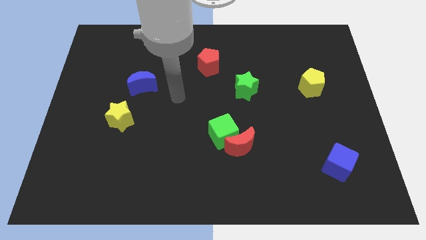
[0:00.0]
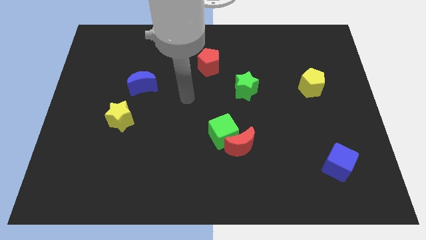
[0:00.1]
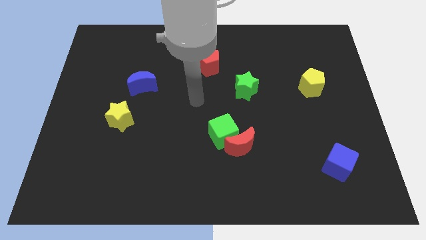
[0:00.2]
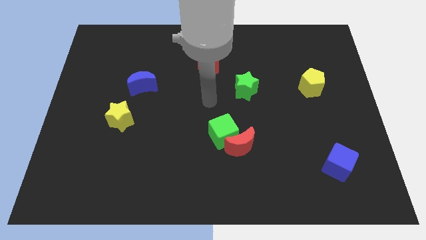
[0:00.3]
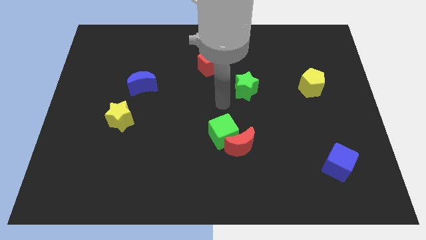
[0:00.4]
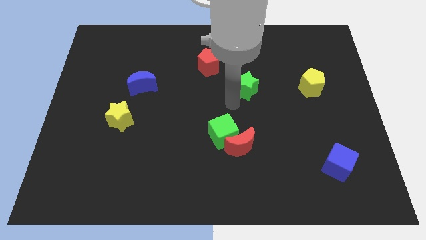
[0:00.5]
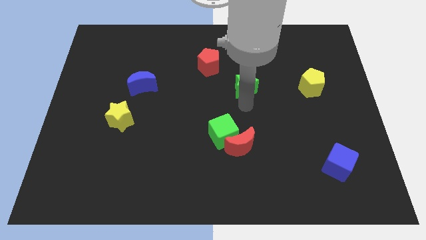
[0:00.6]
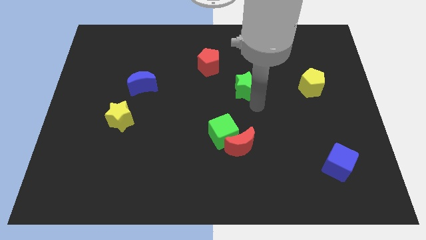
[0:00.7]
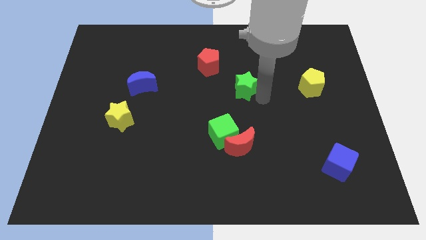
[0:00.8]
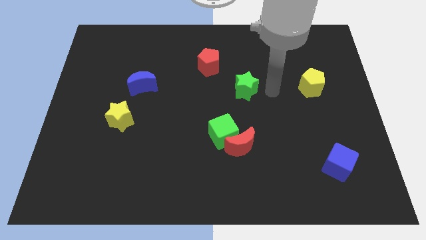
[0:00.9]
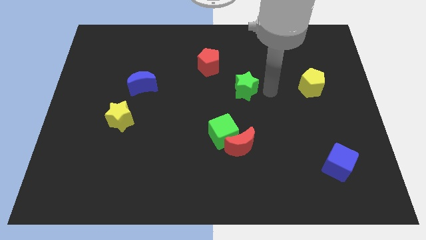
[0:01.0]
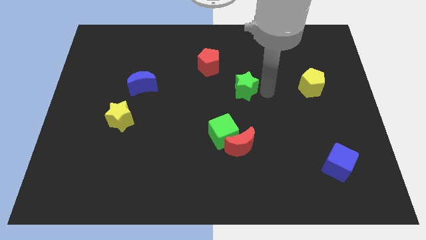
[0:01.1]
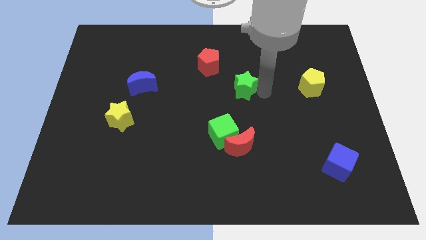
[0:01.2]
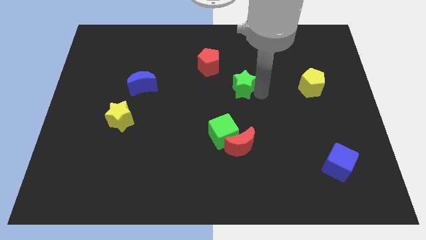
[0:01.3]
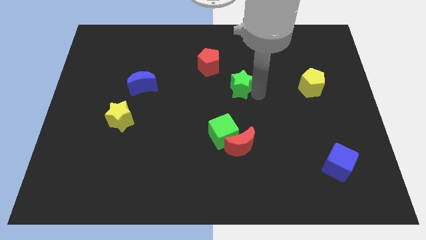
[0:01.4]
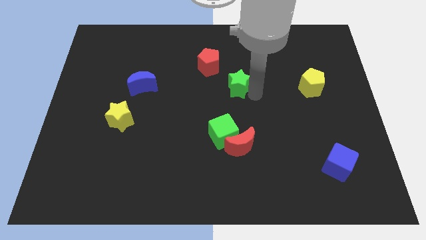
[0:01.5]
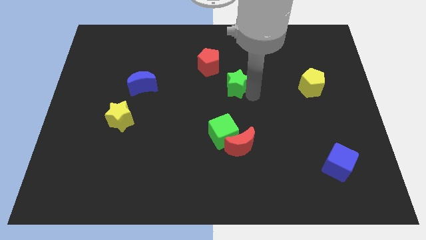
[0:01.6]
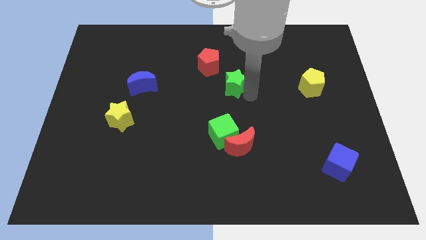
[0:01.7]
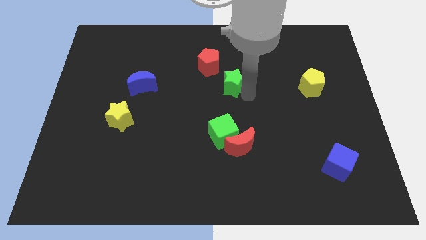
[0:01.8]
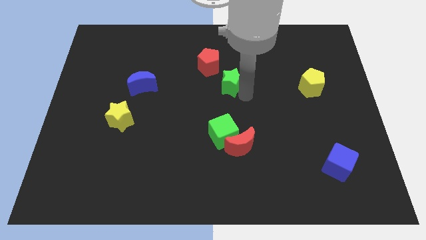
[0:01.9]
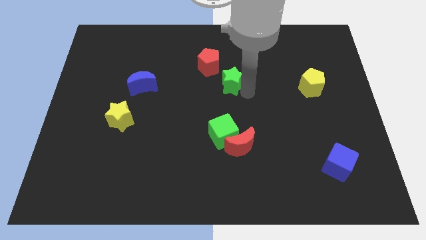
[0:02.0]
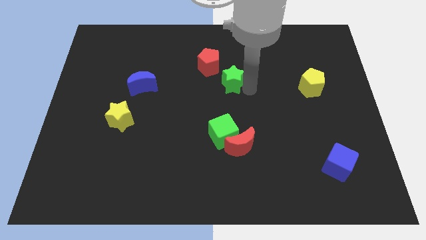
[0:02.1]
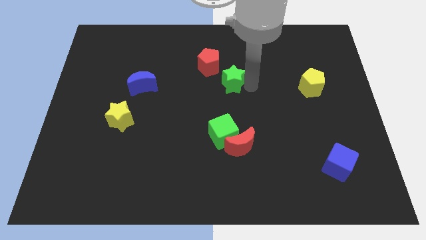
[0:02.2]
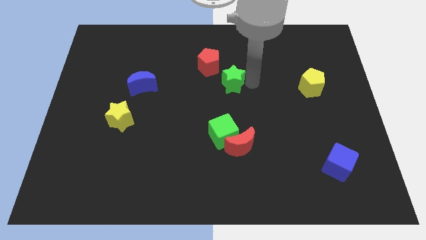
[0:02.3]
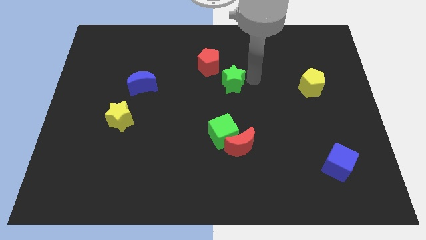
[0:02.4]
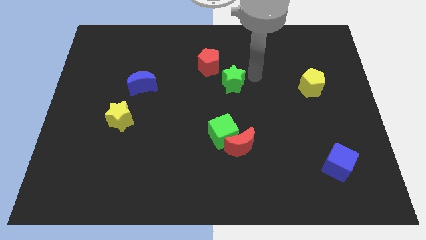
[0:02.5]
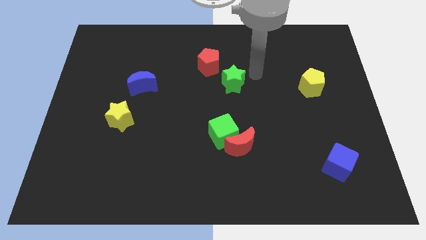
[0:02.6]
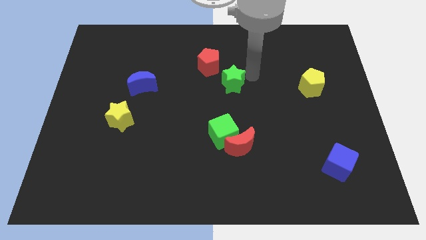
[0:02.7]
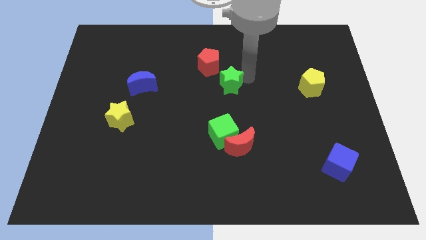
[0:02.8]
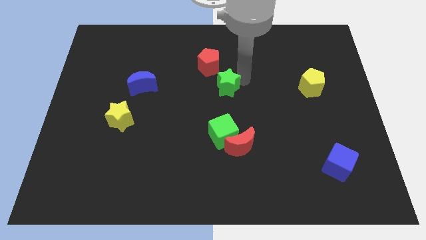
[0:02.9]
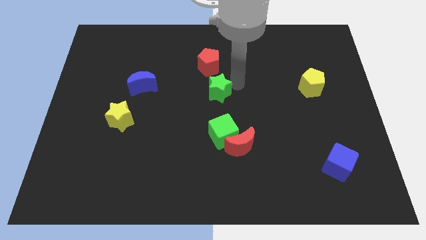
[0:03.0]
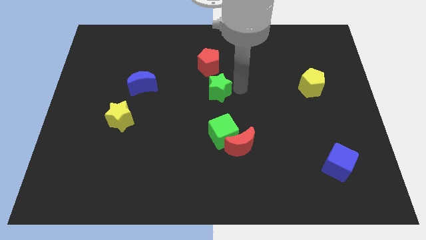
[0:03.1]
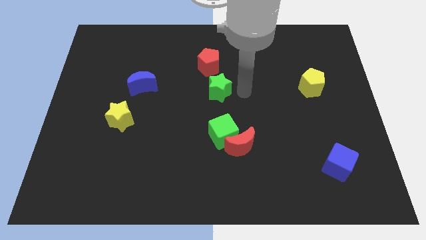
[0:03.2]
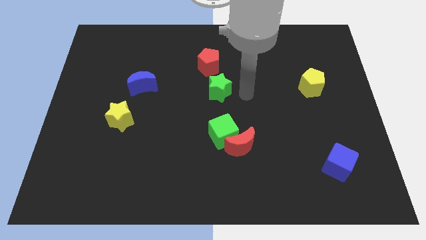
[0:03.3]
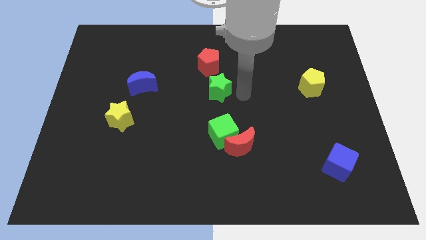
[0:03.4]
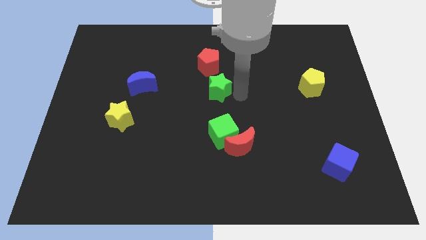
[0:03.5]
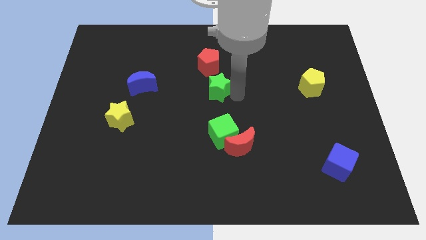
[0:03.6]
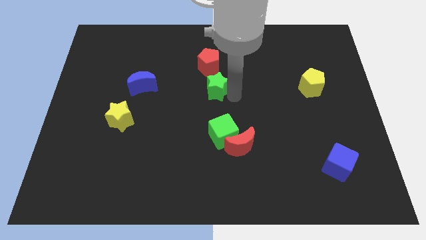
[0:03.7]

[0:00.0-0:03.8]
move the green star a little left

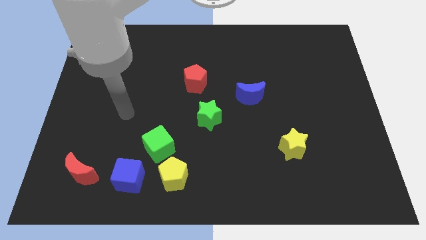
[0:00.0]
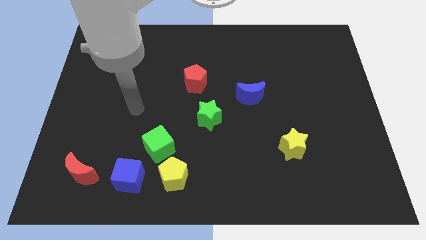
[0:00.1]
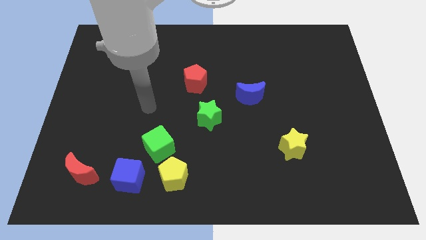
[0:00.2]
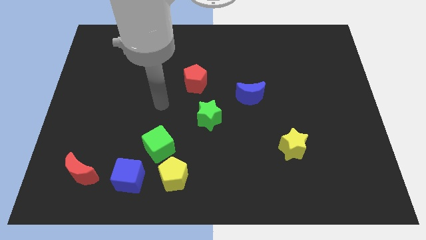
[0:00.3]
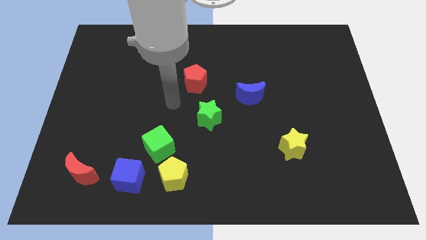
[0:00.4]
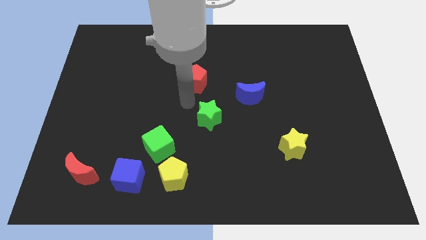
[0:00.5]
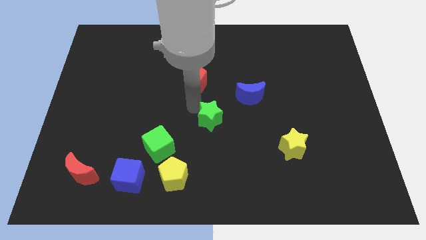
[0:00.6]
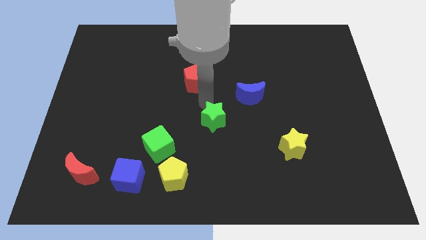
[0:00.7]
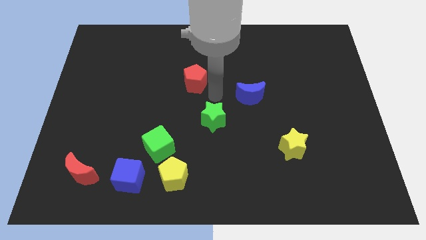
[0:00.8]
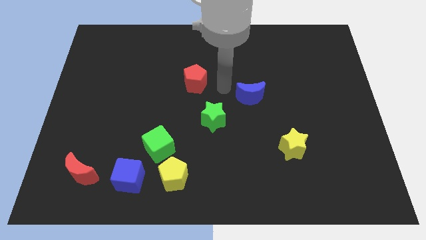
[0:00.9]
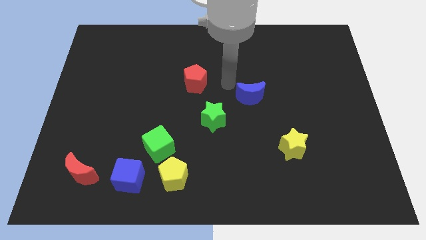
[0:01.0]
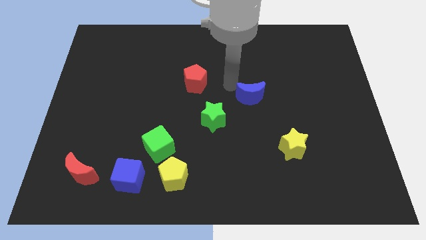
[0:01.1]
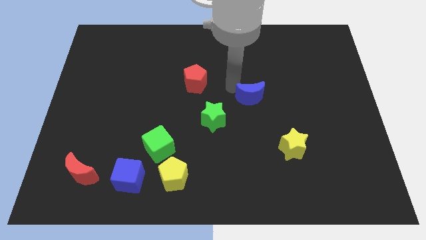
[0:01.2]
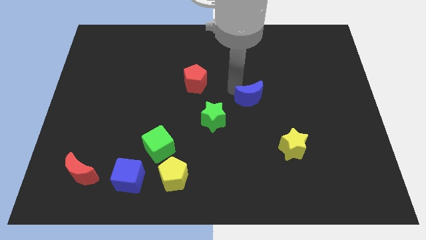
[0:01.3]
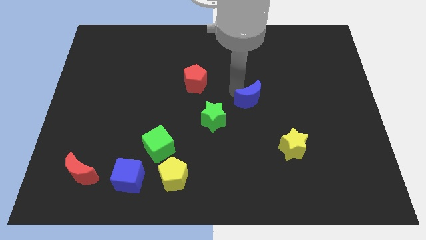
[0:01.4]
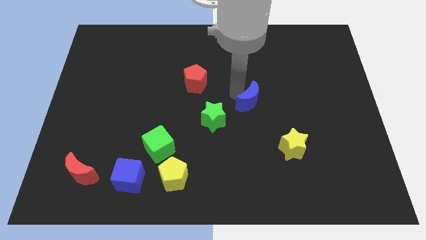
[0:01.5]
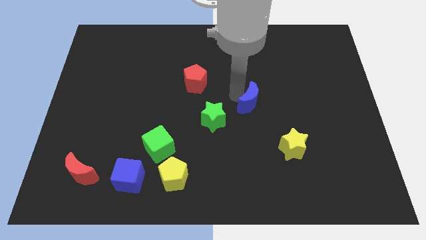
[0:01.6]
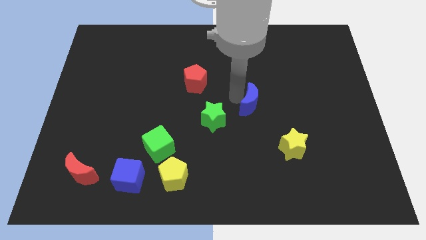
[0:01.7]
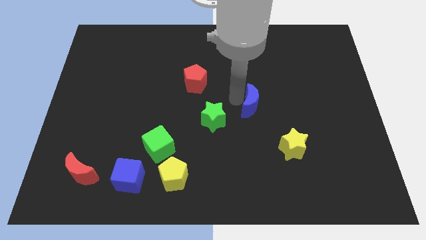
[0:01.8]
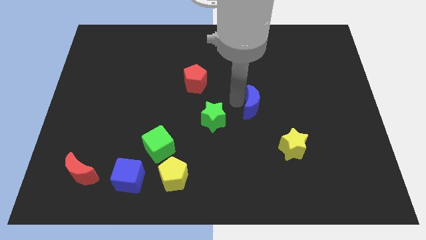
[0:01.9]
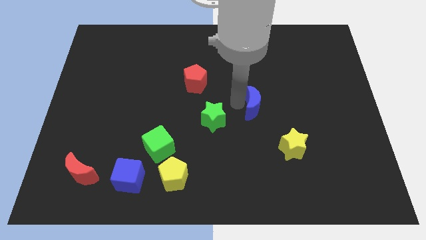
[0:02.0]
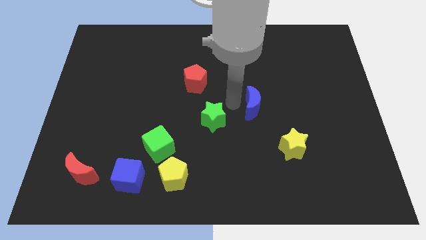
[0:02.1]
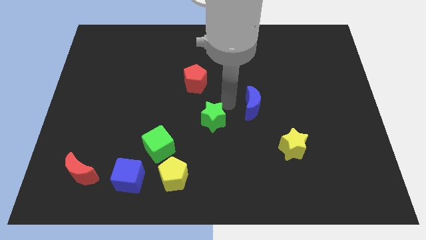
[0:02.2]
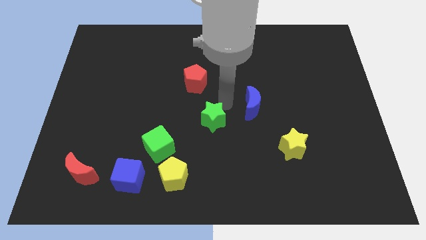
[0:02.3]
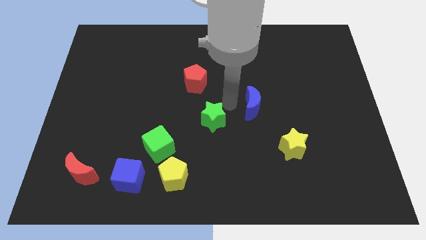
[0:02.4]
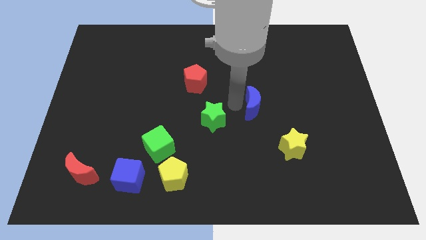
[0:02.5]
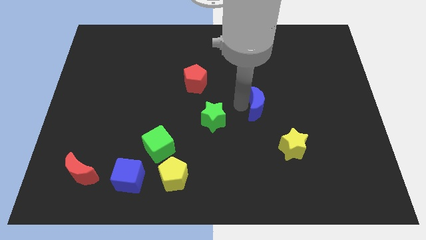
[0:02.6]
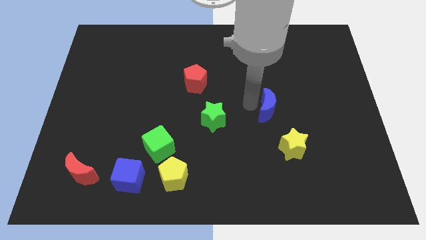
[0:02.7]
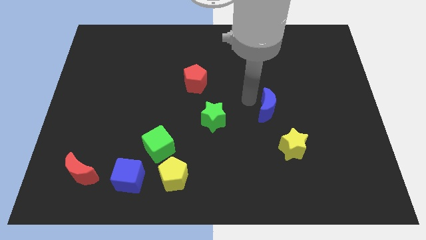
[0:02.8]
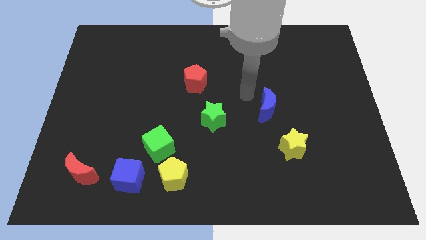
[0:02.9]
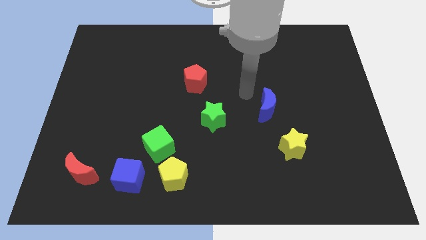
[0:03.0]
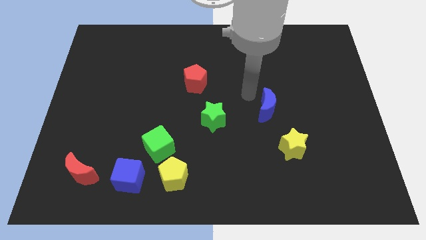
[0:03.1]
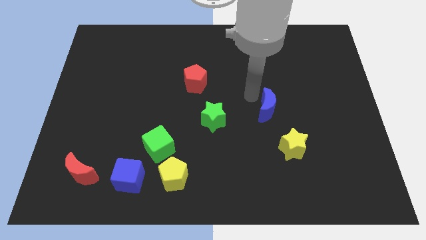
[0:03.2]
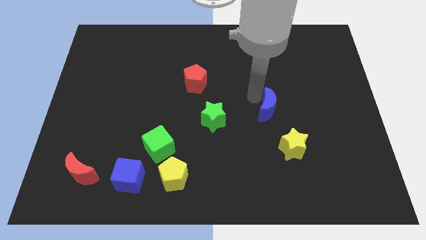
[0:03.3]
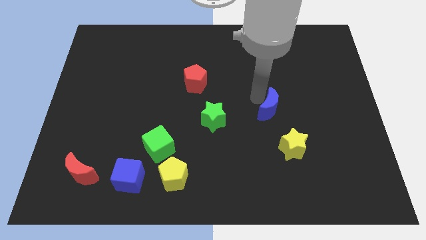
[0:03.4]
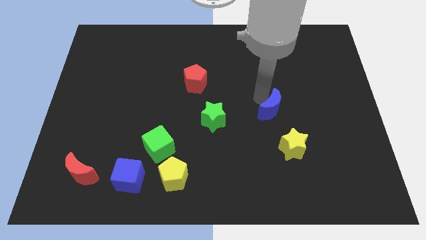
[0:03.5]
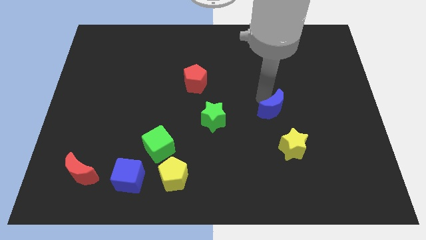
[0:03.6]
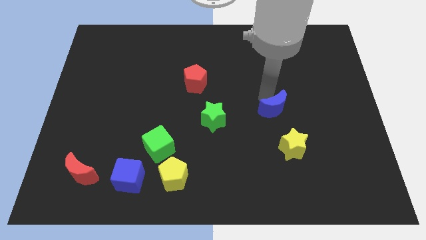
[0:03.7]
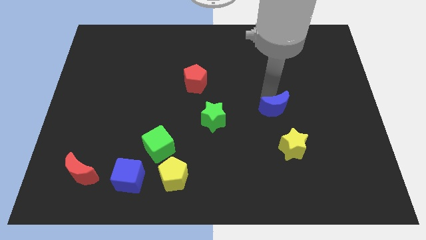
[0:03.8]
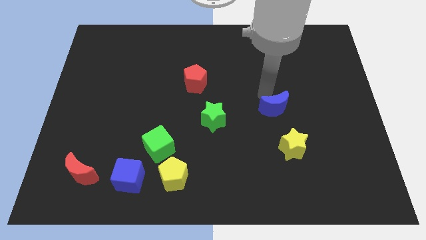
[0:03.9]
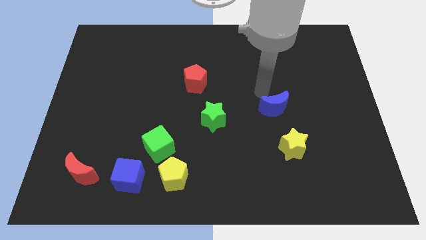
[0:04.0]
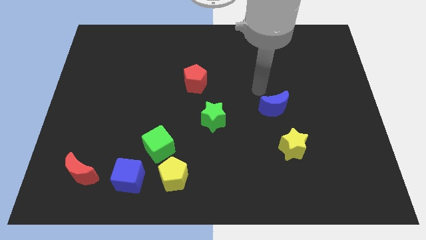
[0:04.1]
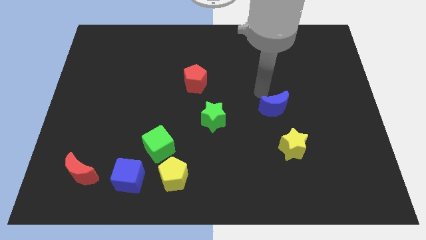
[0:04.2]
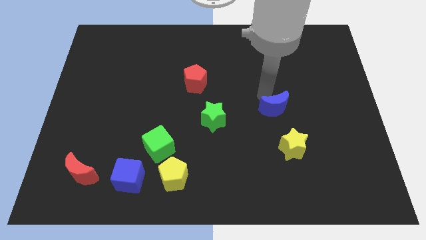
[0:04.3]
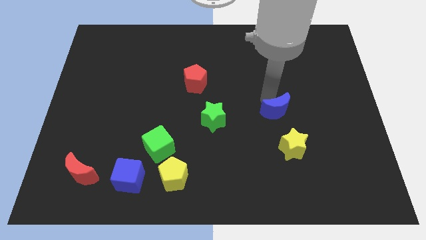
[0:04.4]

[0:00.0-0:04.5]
move the blue moon slightly downwards and right
